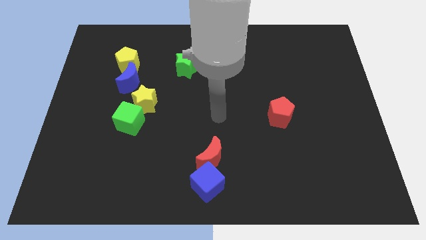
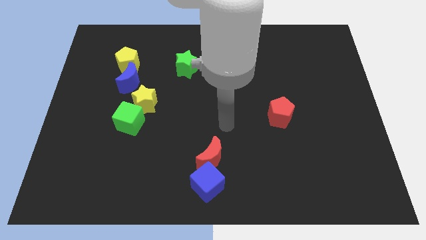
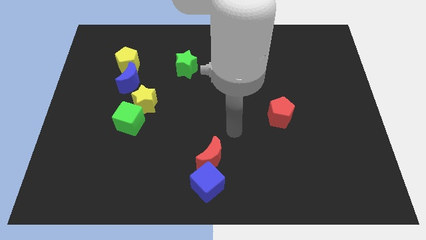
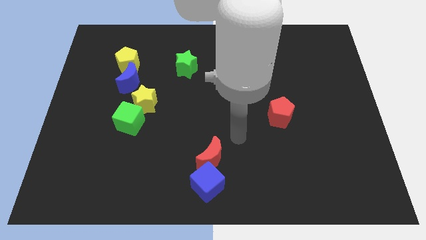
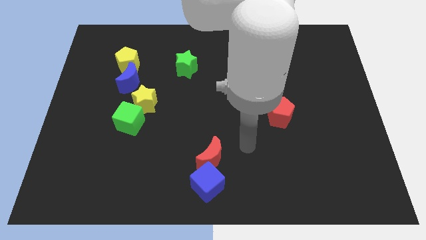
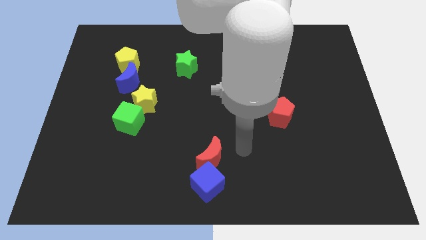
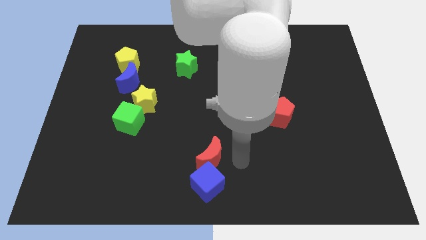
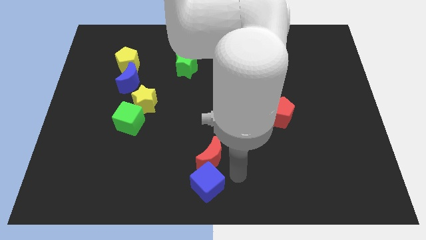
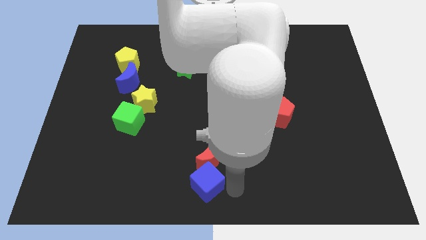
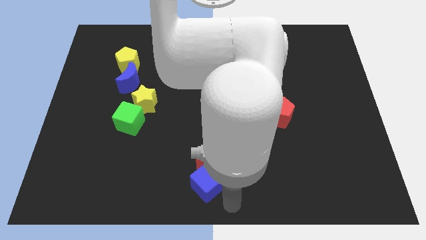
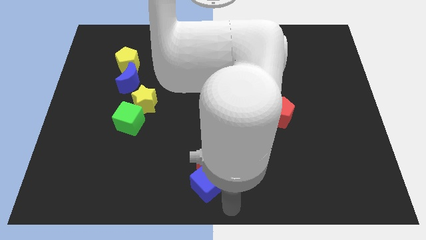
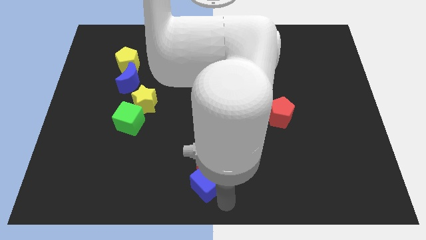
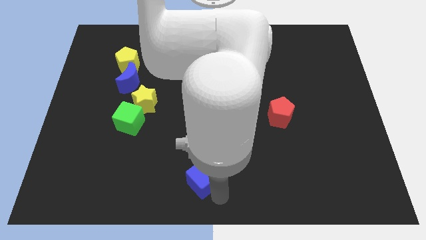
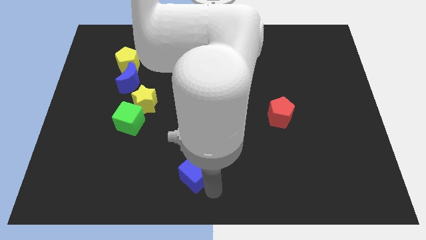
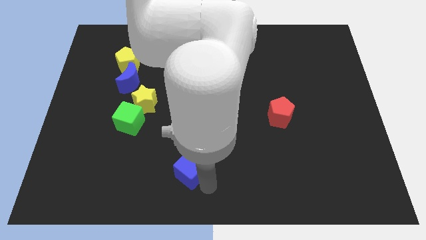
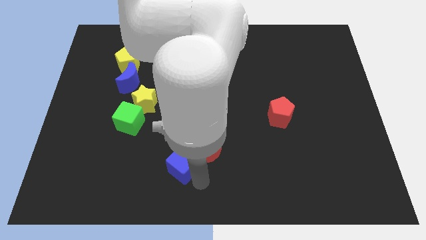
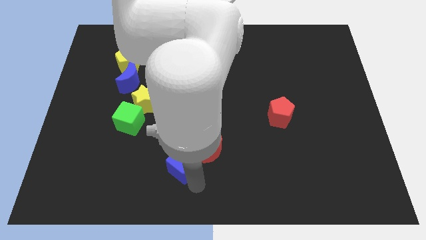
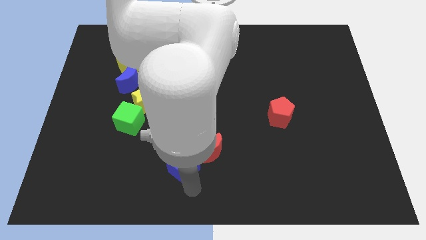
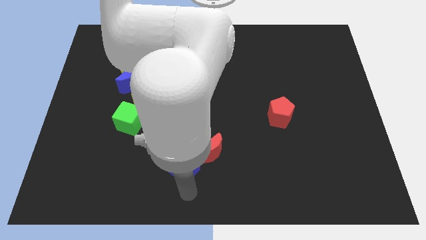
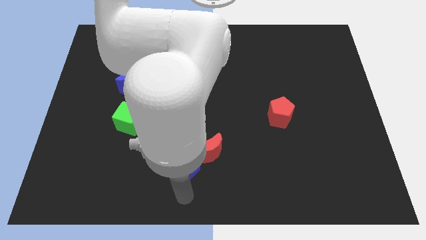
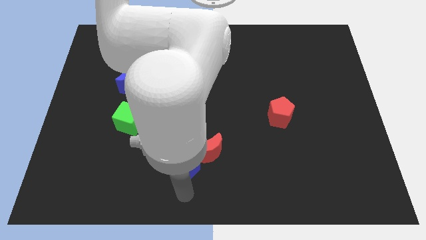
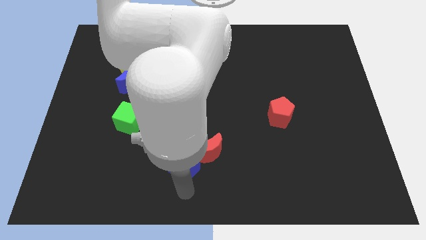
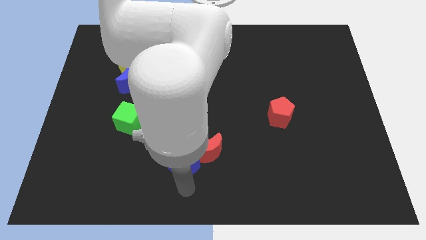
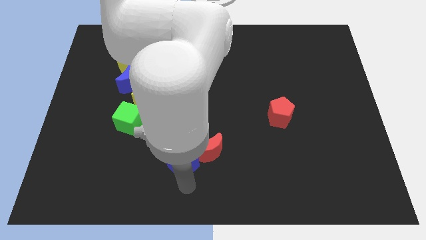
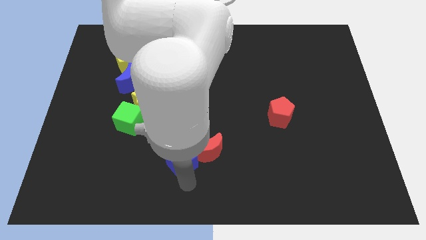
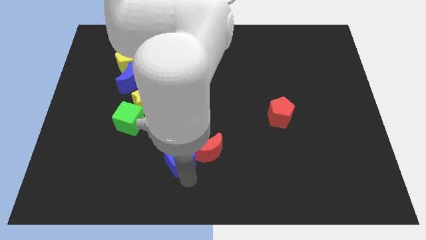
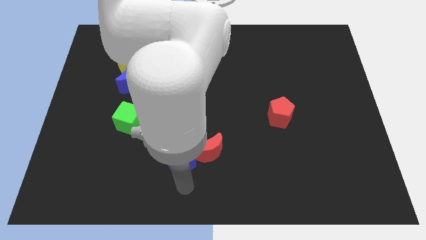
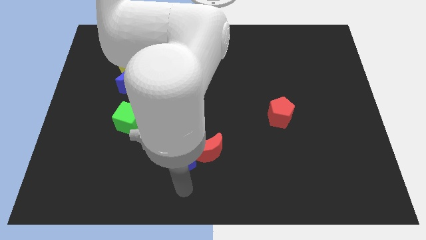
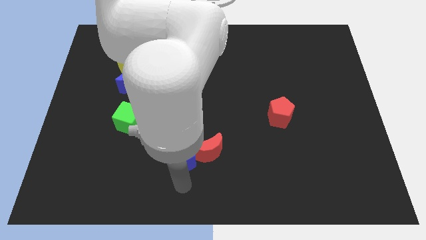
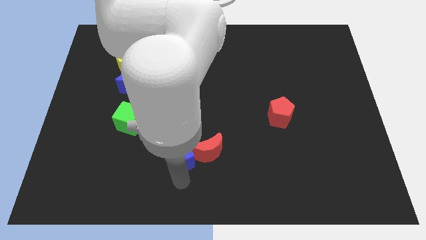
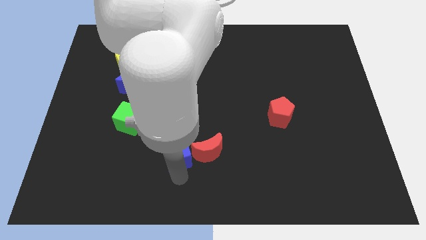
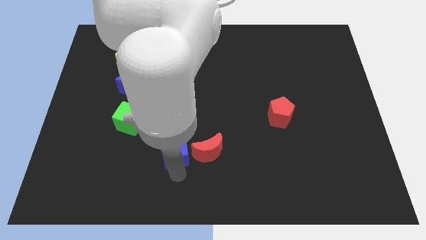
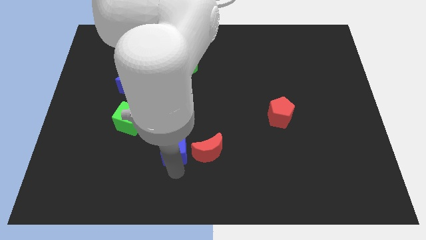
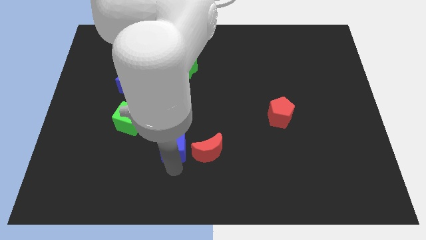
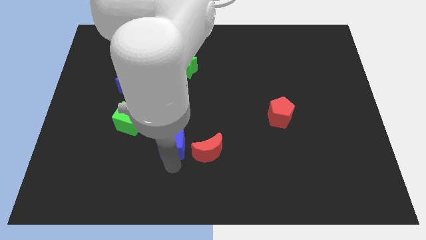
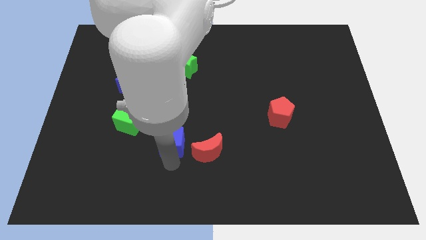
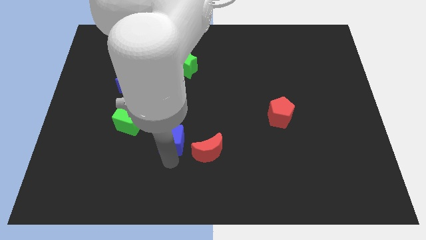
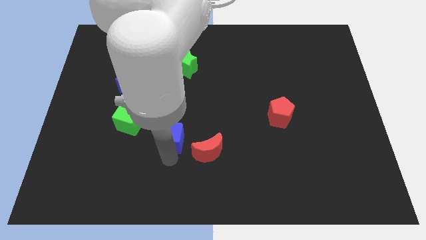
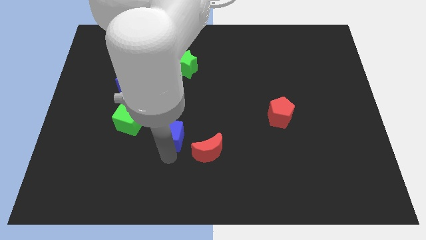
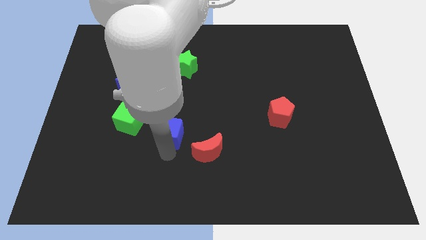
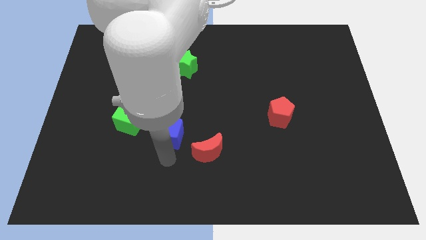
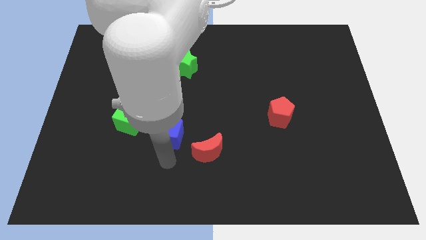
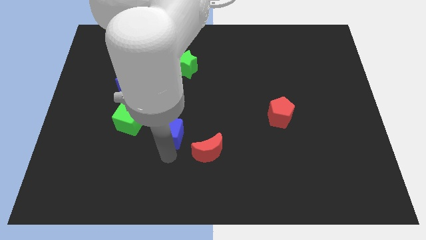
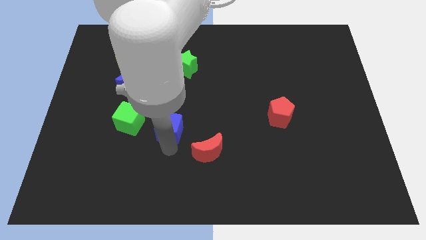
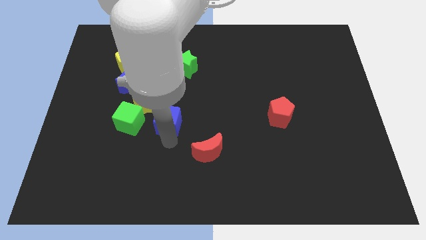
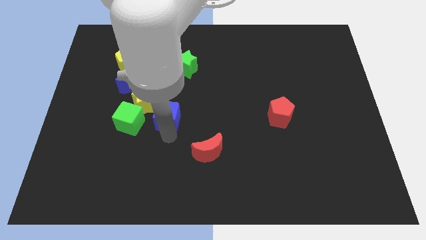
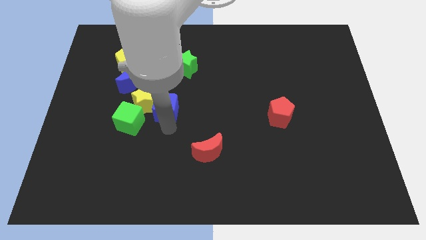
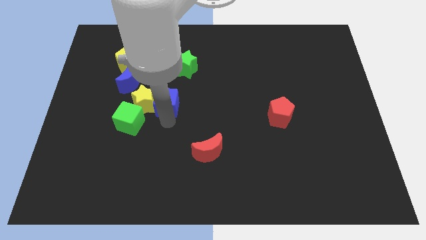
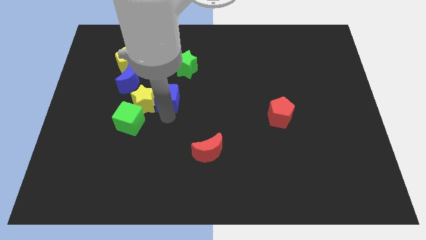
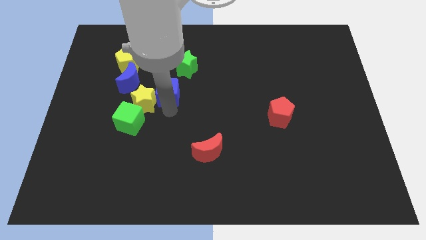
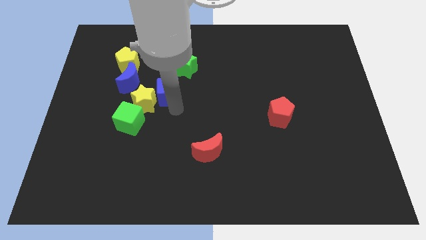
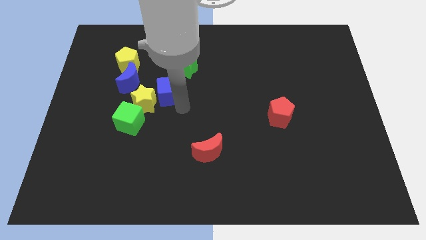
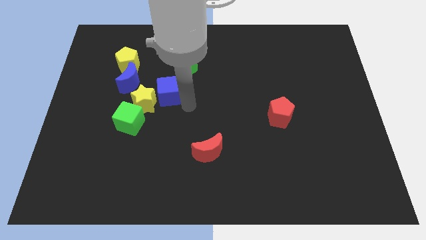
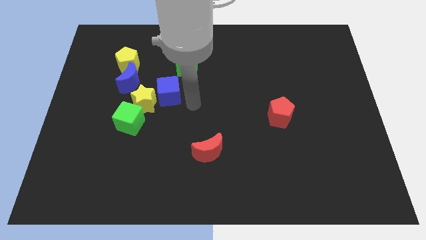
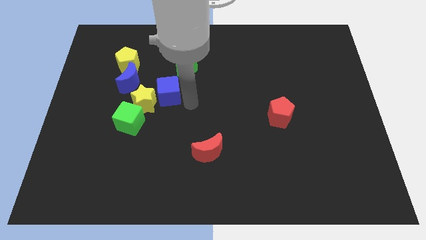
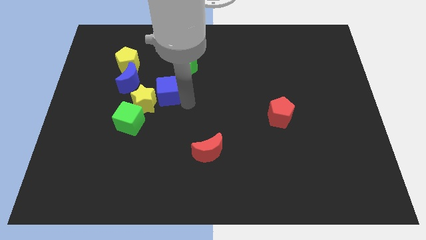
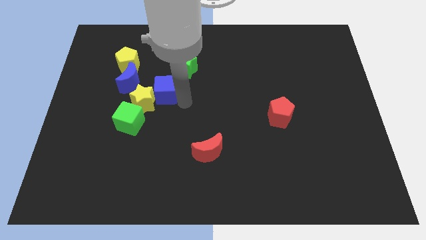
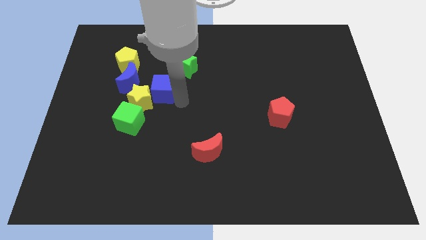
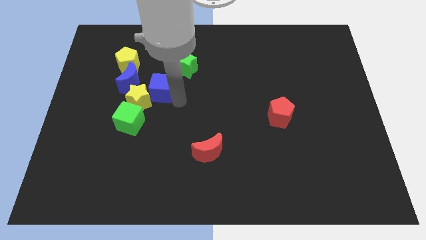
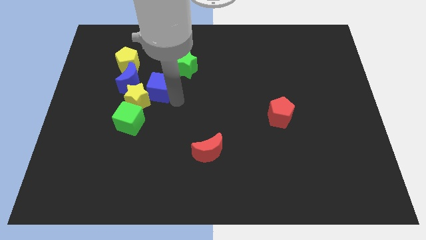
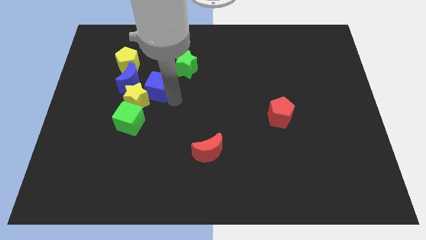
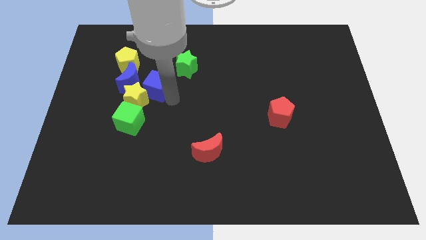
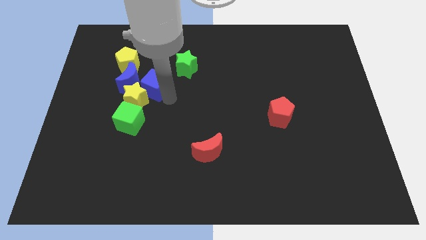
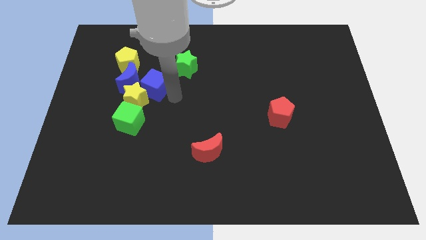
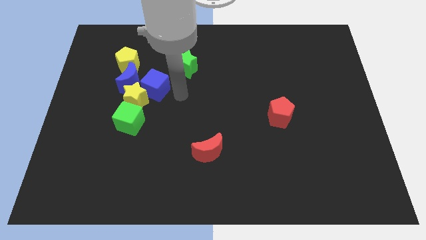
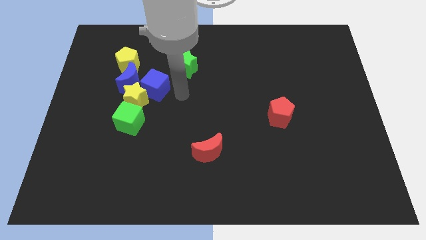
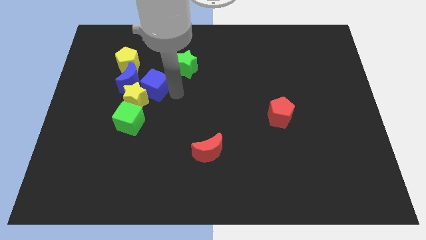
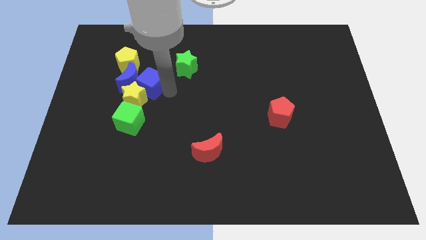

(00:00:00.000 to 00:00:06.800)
move the blue cube towards the blue moon

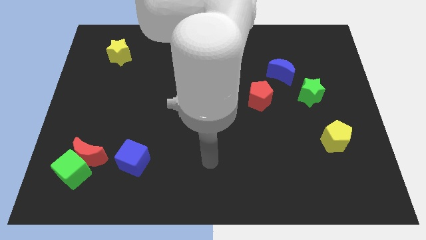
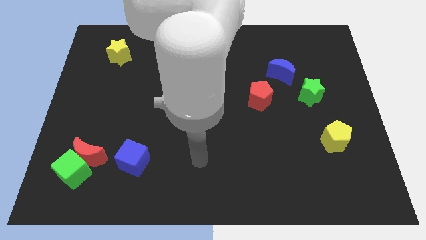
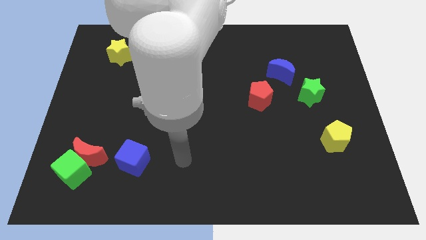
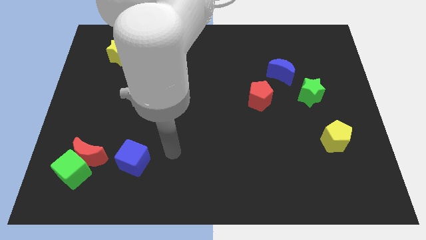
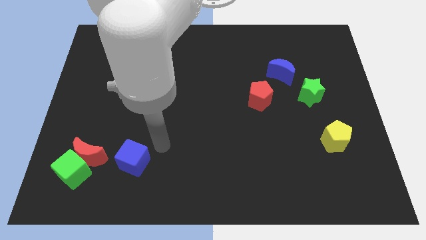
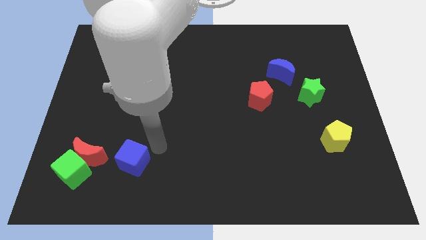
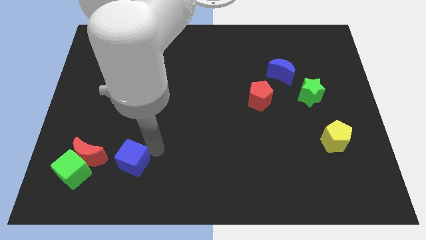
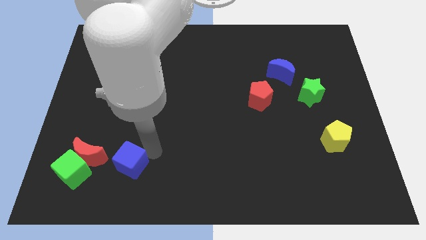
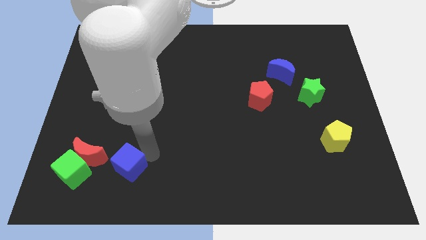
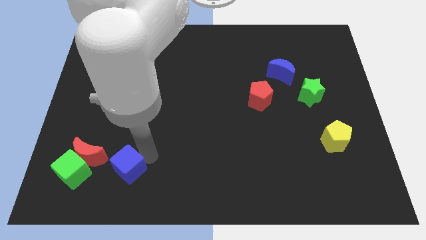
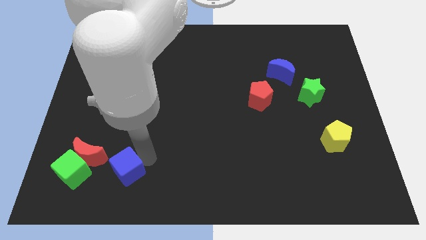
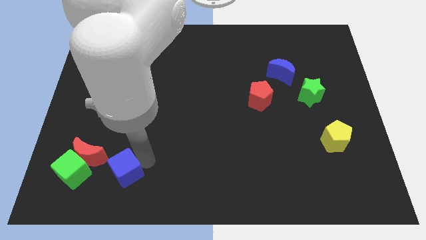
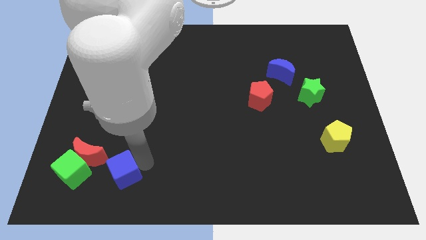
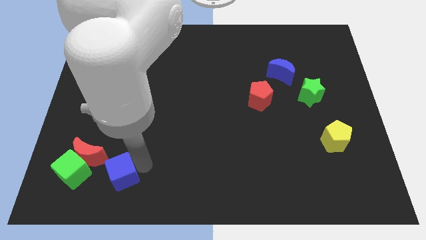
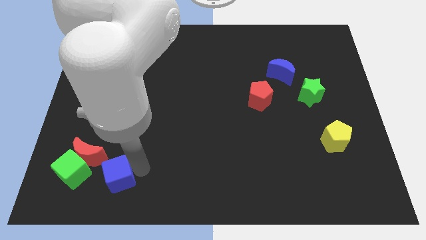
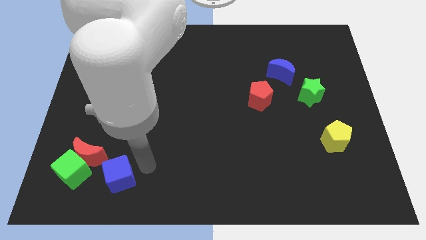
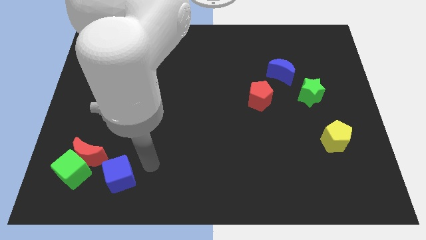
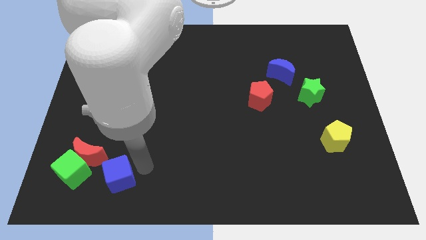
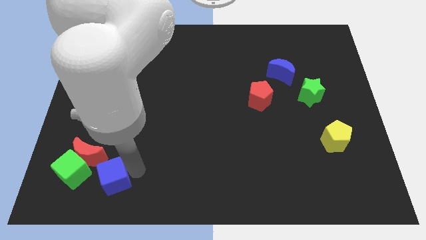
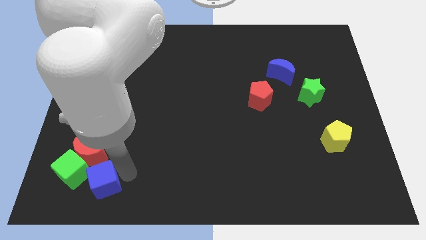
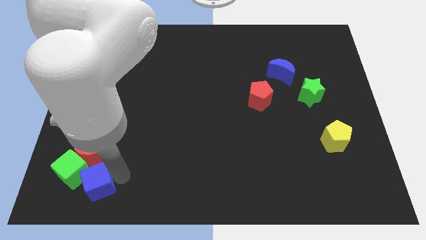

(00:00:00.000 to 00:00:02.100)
slide the blue cube next to the green cube
